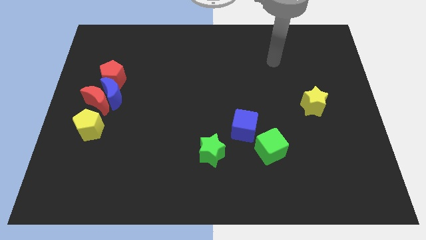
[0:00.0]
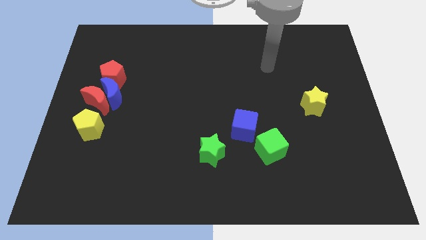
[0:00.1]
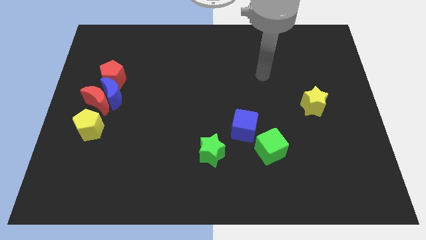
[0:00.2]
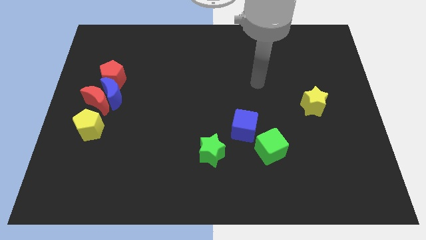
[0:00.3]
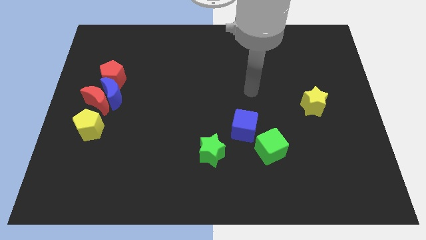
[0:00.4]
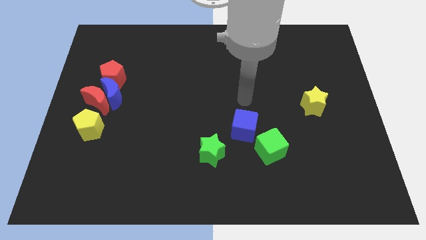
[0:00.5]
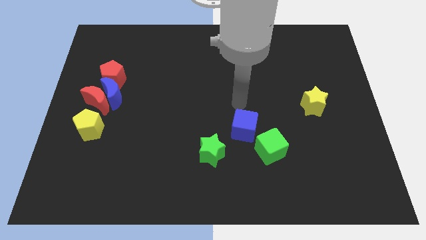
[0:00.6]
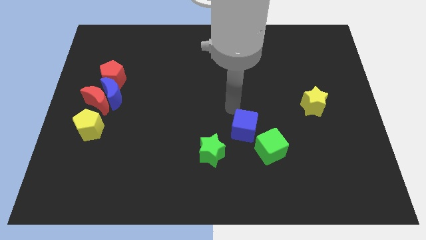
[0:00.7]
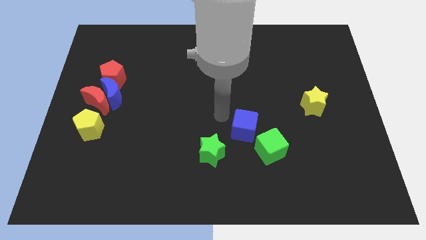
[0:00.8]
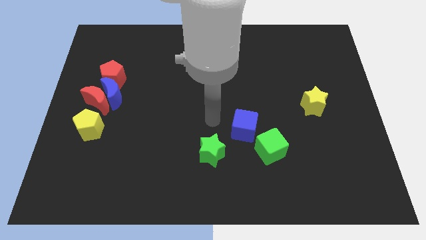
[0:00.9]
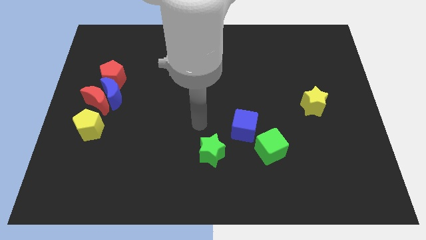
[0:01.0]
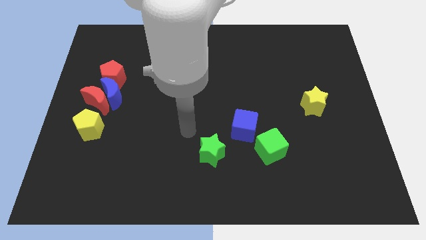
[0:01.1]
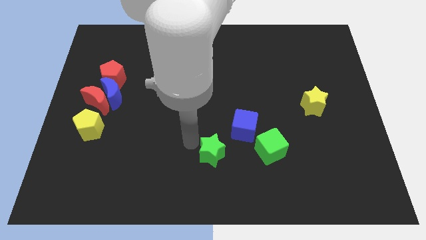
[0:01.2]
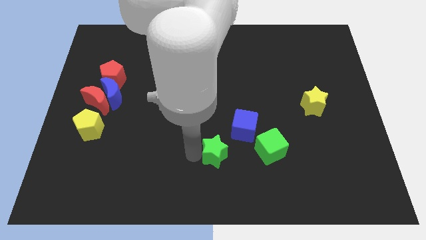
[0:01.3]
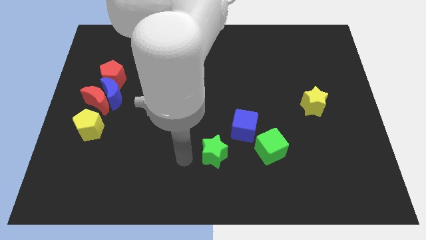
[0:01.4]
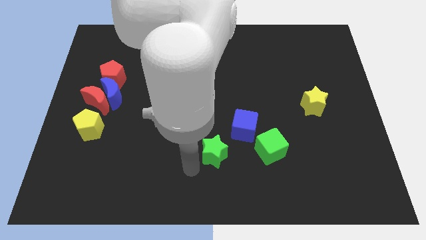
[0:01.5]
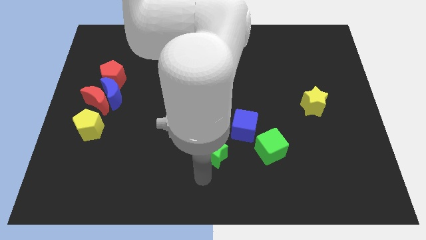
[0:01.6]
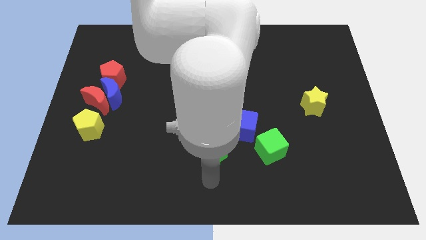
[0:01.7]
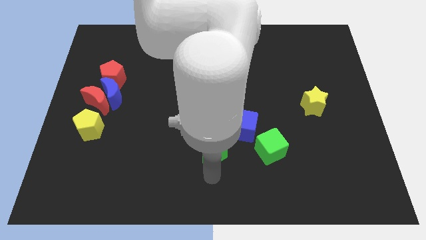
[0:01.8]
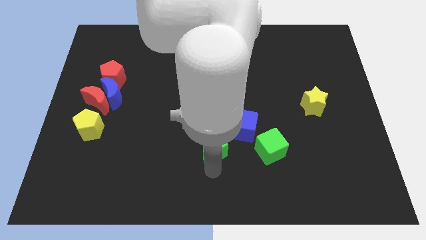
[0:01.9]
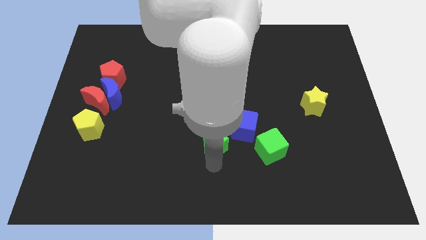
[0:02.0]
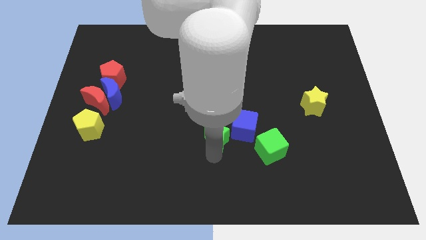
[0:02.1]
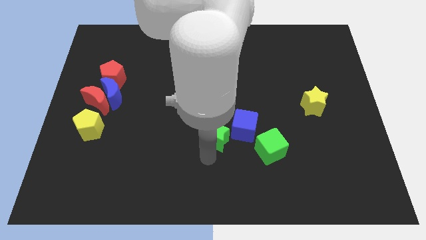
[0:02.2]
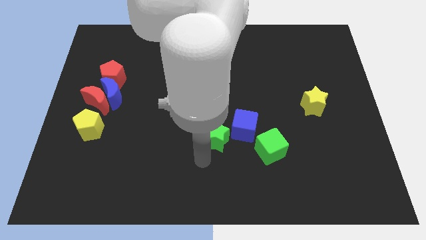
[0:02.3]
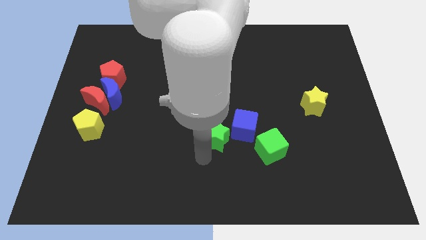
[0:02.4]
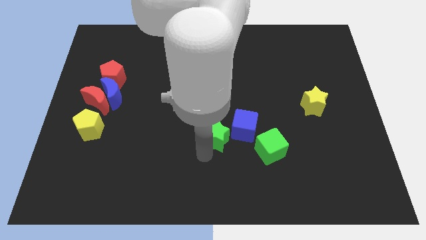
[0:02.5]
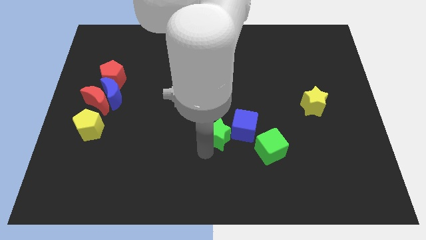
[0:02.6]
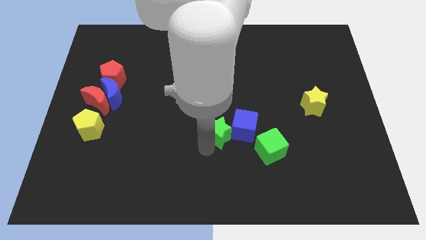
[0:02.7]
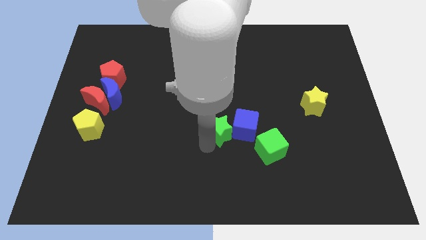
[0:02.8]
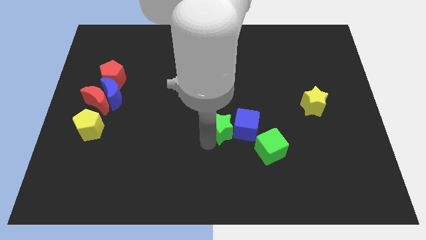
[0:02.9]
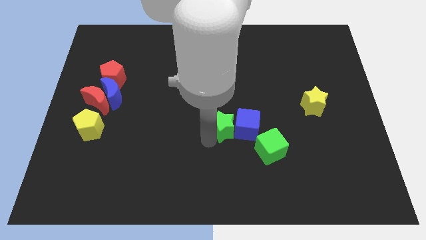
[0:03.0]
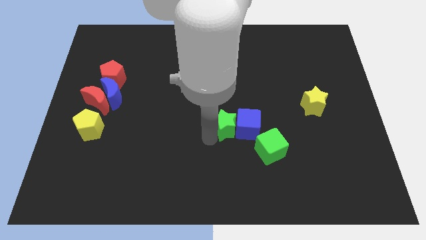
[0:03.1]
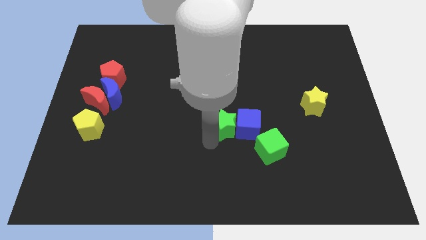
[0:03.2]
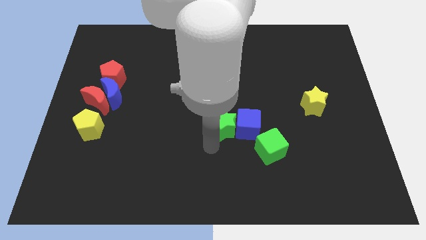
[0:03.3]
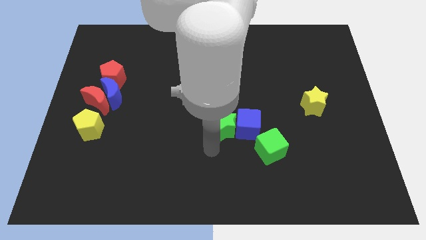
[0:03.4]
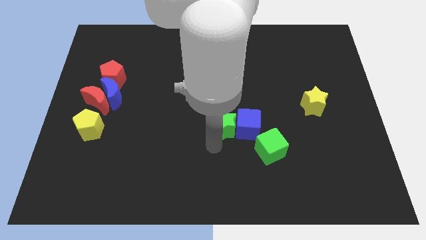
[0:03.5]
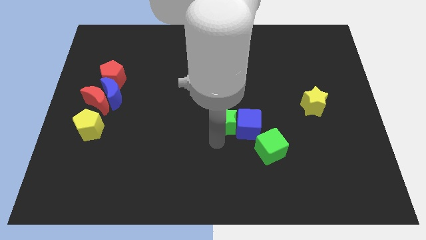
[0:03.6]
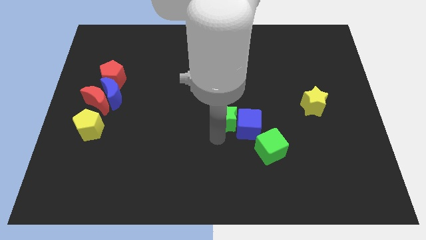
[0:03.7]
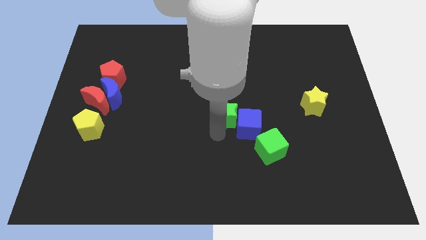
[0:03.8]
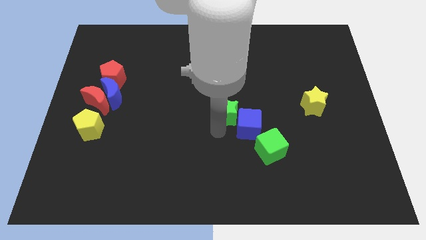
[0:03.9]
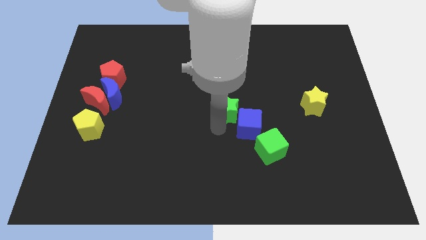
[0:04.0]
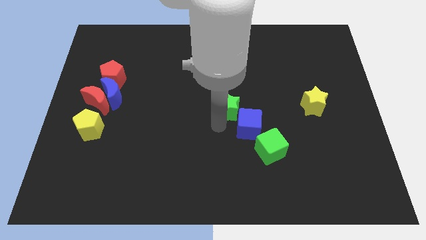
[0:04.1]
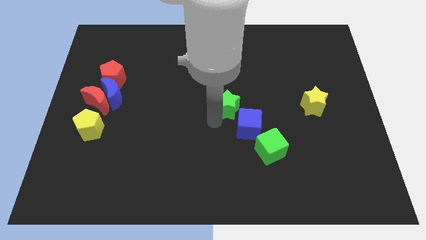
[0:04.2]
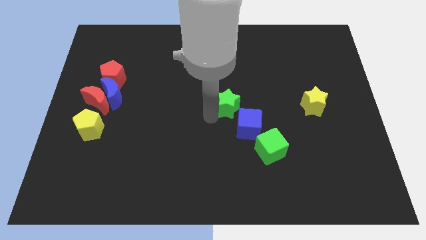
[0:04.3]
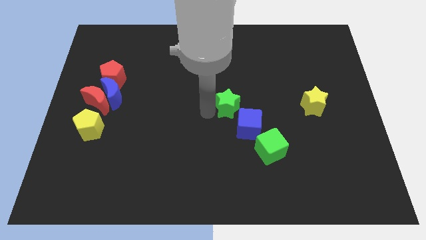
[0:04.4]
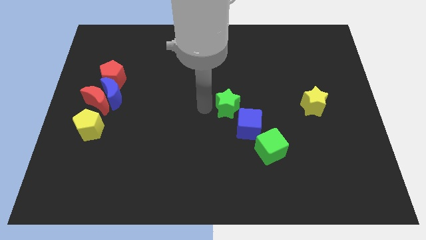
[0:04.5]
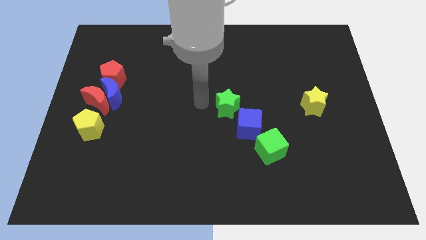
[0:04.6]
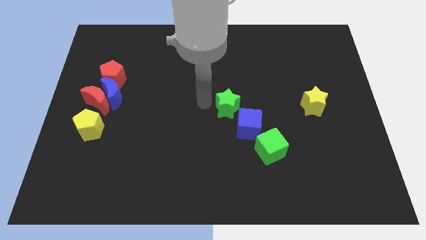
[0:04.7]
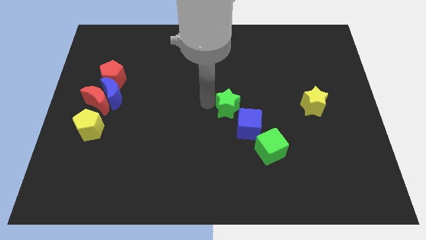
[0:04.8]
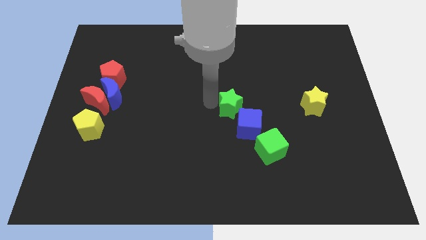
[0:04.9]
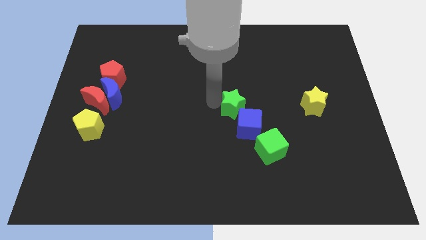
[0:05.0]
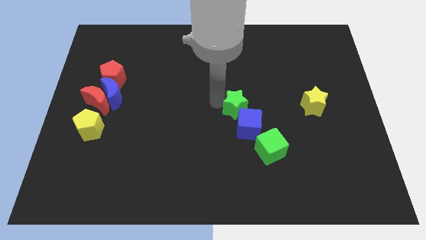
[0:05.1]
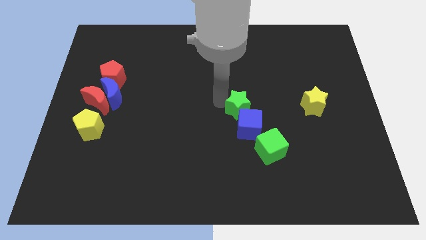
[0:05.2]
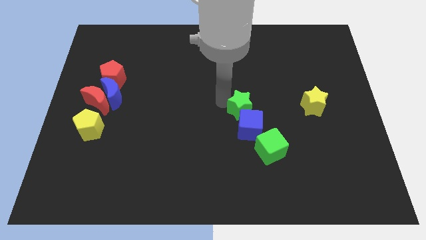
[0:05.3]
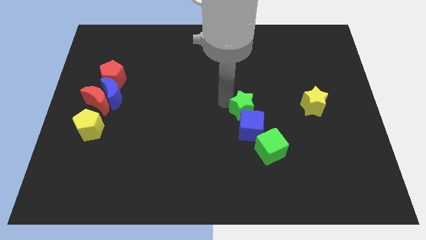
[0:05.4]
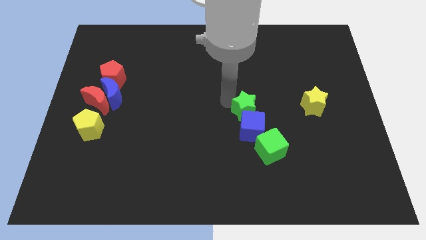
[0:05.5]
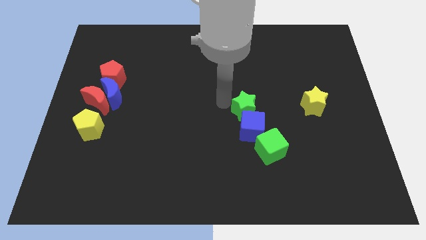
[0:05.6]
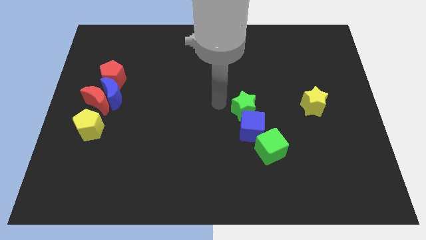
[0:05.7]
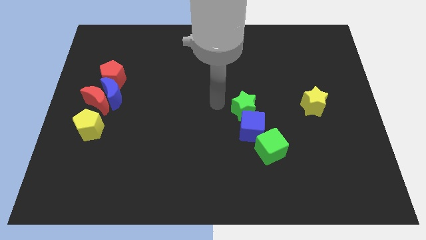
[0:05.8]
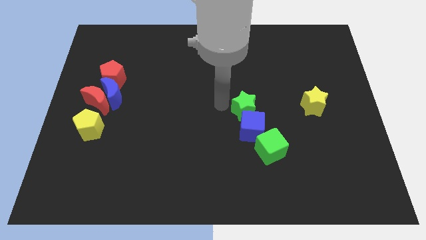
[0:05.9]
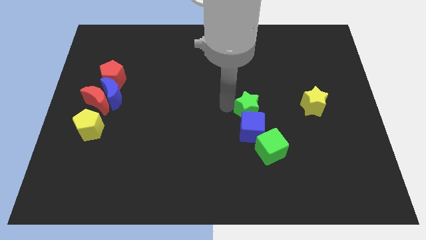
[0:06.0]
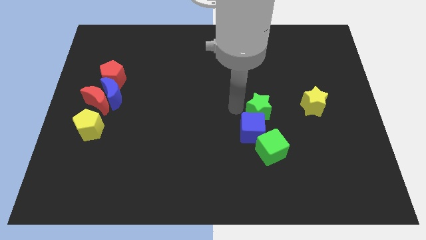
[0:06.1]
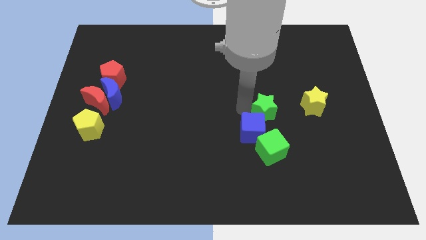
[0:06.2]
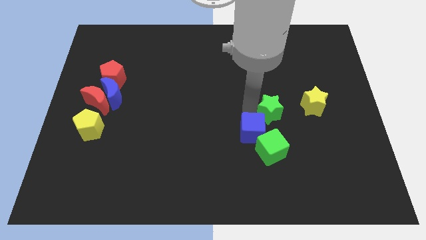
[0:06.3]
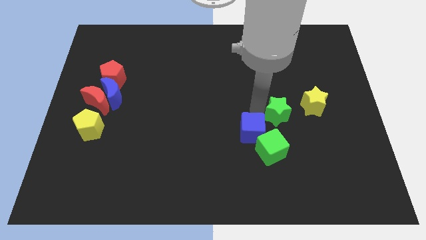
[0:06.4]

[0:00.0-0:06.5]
put the green star to the bottom left of the yellow star
